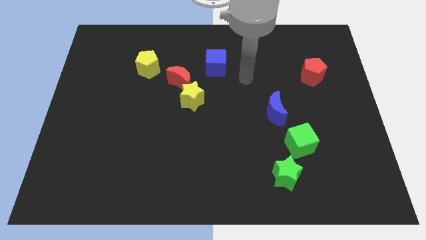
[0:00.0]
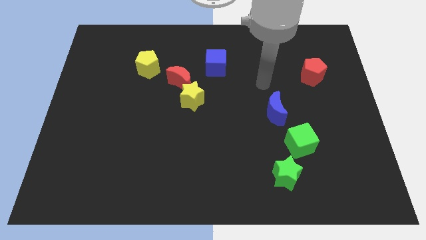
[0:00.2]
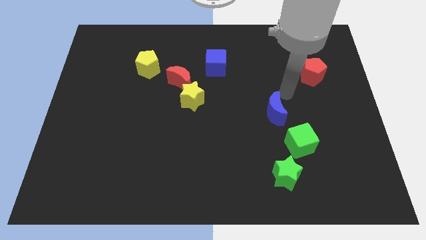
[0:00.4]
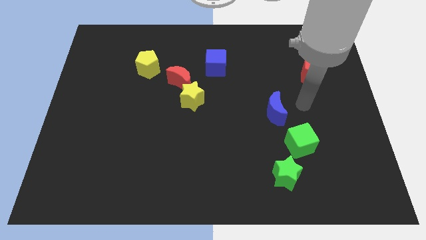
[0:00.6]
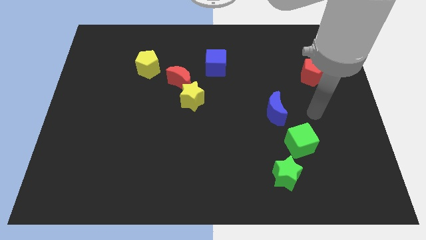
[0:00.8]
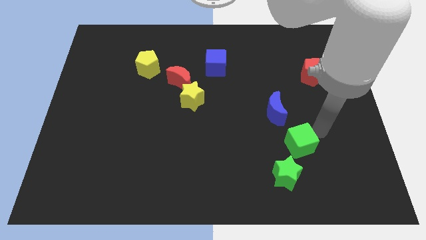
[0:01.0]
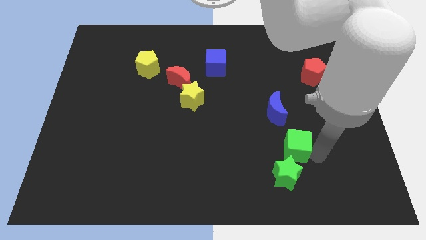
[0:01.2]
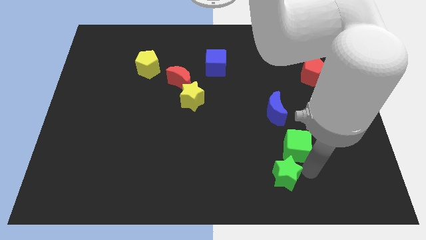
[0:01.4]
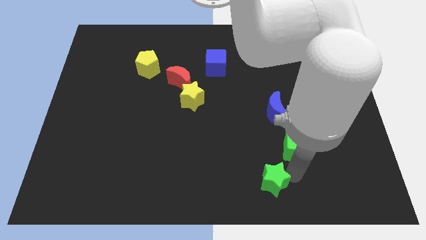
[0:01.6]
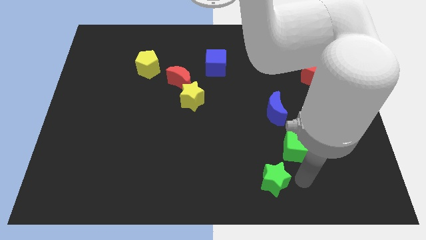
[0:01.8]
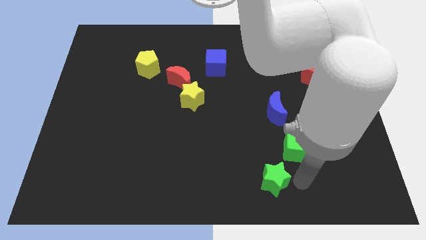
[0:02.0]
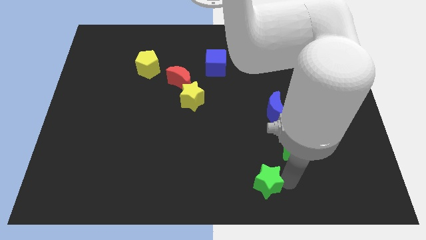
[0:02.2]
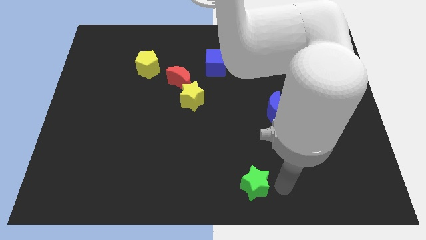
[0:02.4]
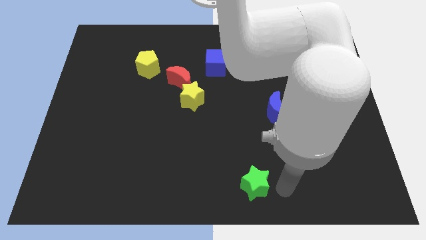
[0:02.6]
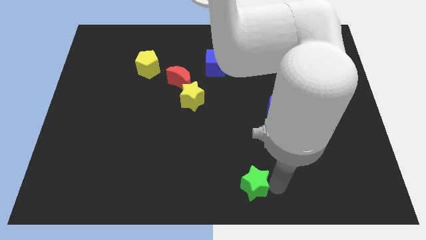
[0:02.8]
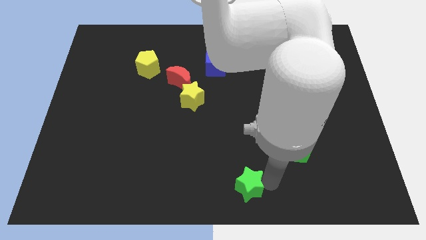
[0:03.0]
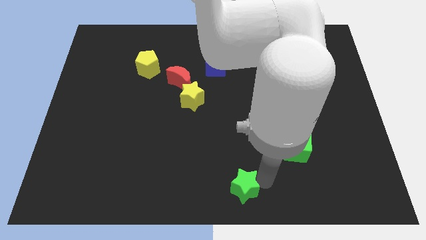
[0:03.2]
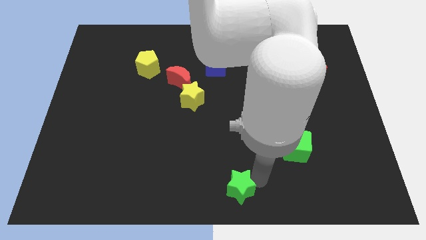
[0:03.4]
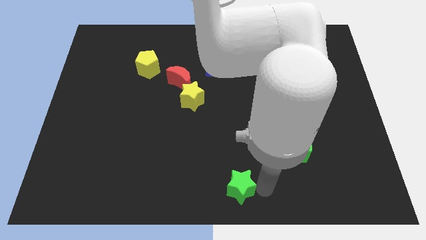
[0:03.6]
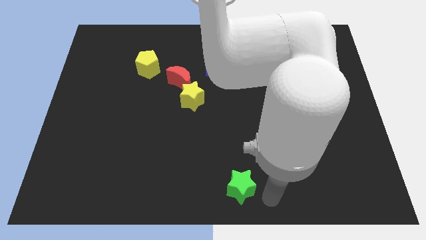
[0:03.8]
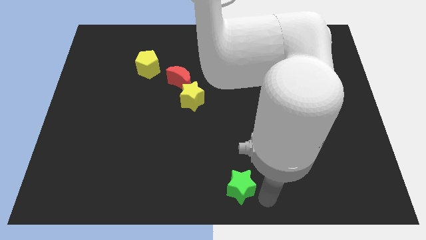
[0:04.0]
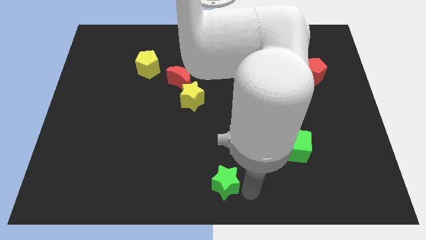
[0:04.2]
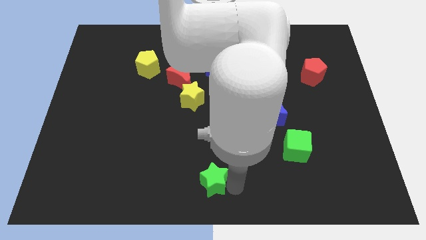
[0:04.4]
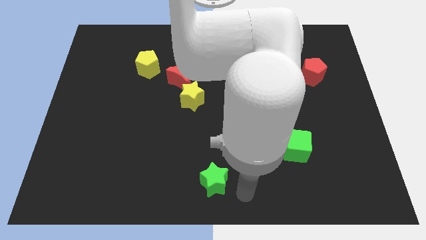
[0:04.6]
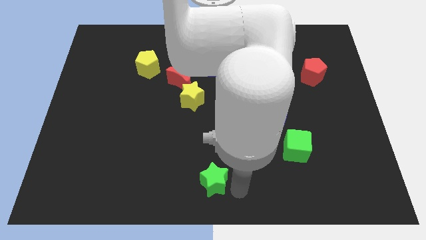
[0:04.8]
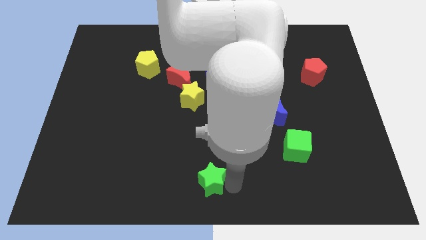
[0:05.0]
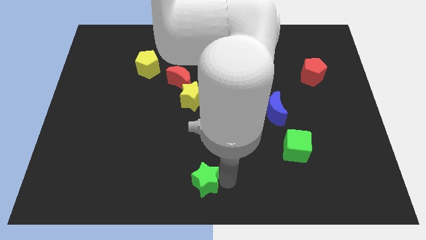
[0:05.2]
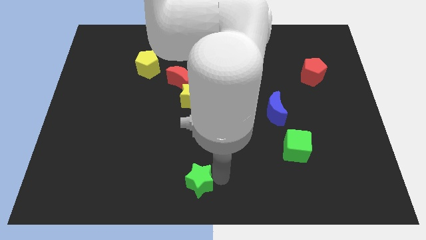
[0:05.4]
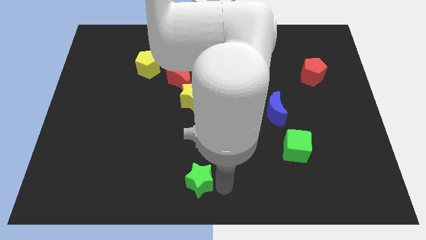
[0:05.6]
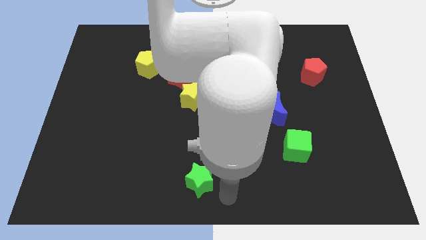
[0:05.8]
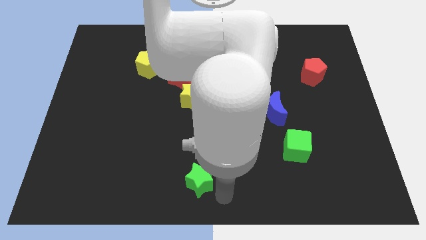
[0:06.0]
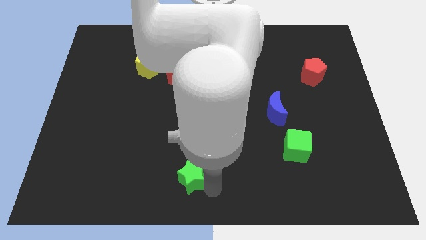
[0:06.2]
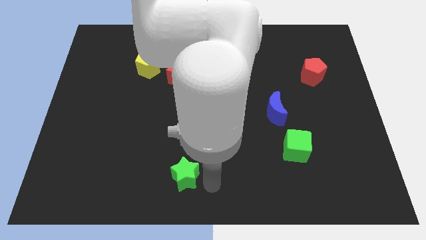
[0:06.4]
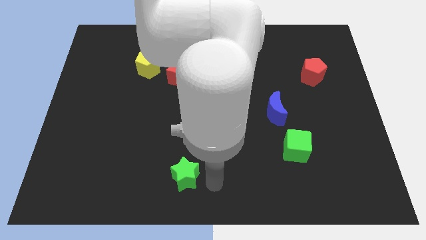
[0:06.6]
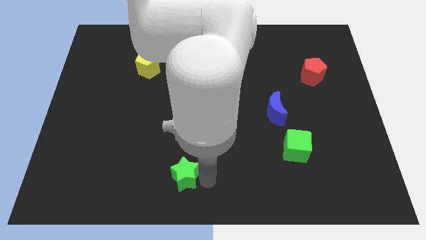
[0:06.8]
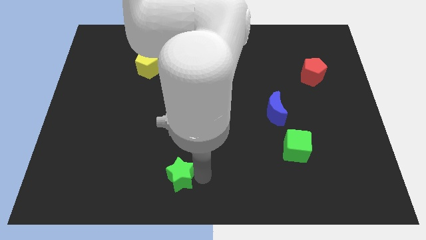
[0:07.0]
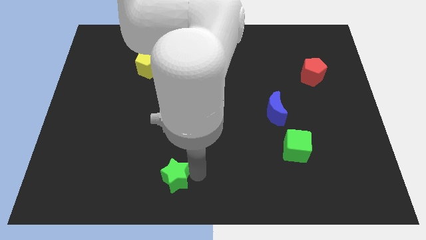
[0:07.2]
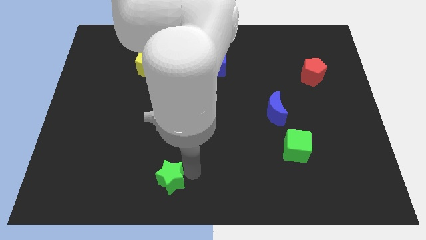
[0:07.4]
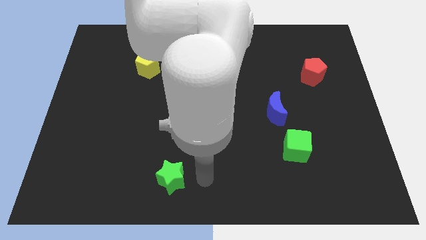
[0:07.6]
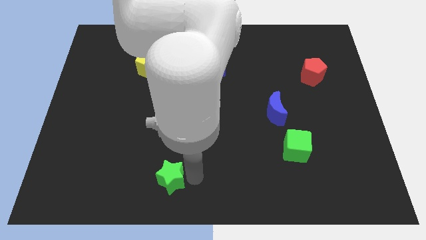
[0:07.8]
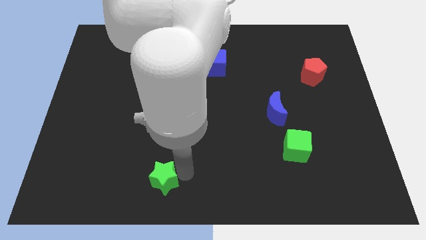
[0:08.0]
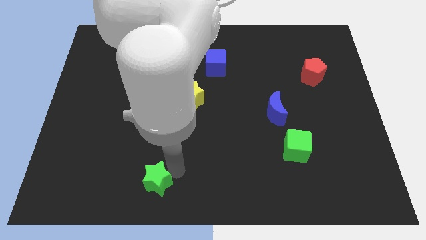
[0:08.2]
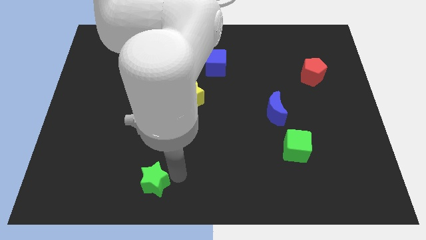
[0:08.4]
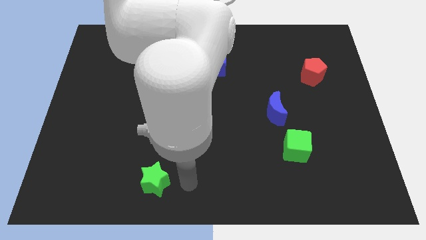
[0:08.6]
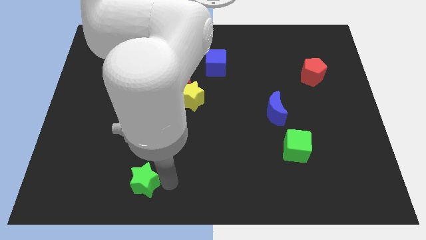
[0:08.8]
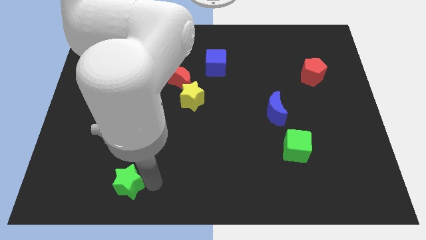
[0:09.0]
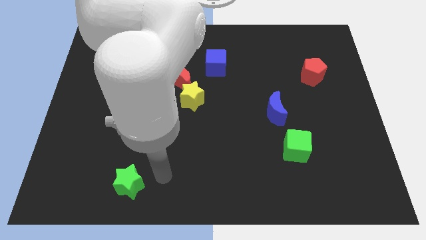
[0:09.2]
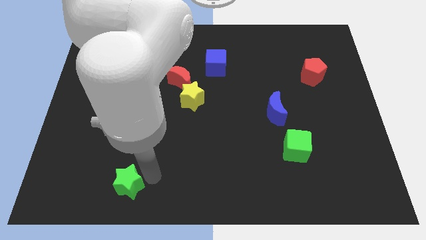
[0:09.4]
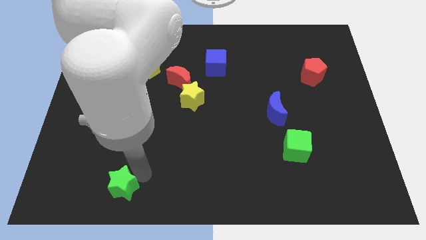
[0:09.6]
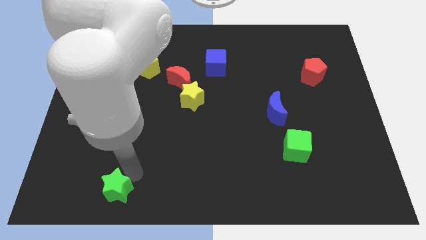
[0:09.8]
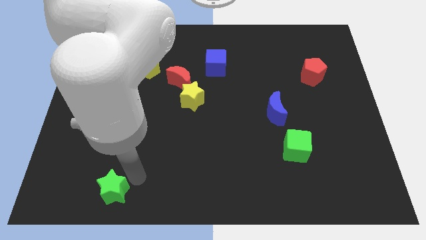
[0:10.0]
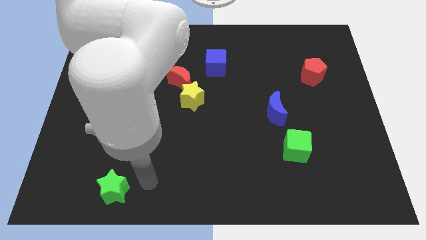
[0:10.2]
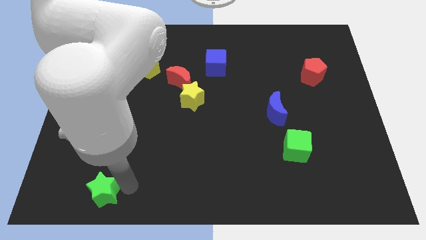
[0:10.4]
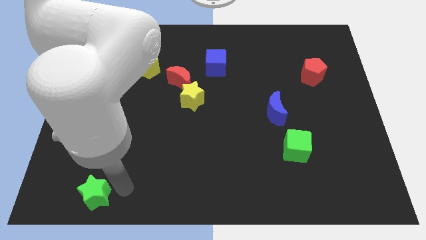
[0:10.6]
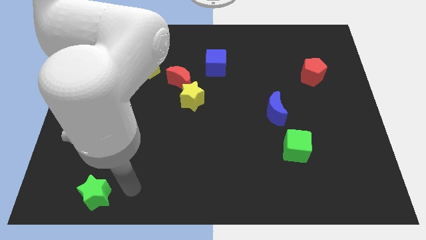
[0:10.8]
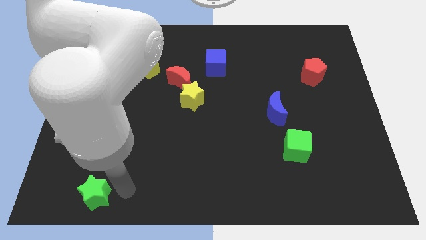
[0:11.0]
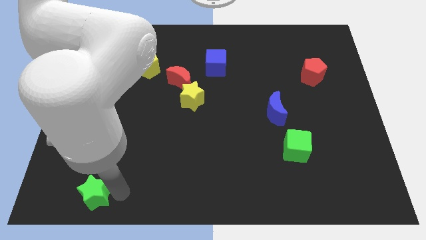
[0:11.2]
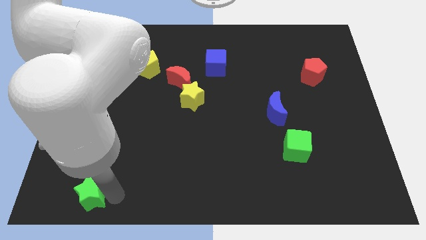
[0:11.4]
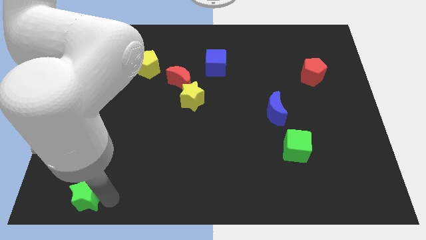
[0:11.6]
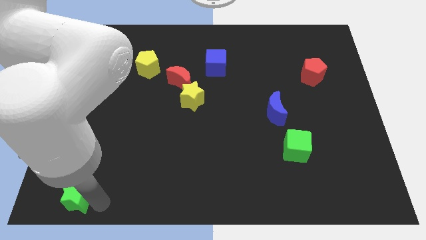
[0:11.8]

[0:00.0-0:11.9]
push the green star to the bottom left
